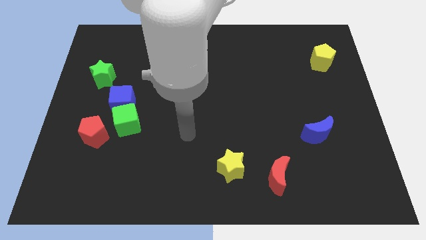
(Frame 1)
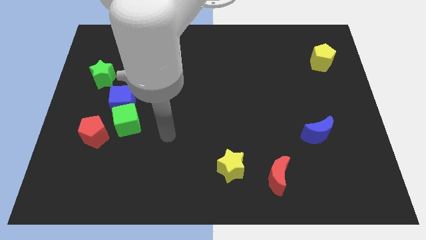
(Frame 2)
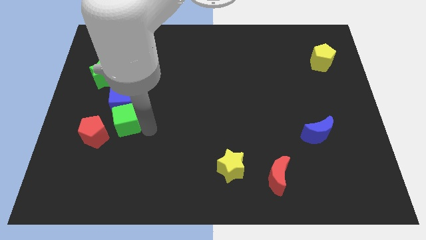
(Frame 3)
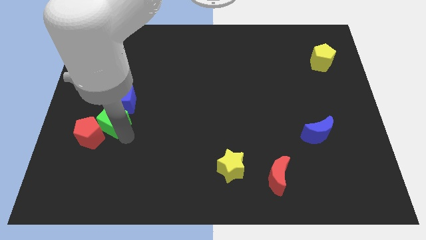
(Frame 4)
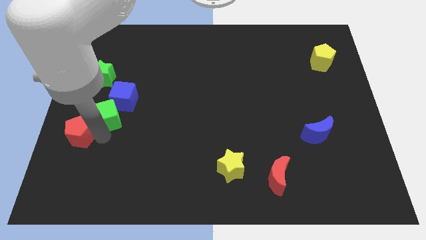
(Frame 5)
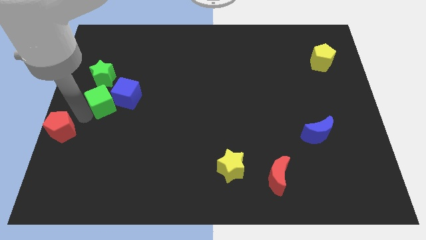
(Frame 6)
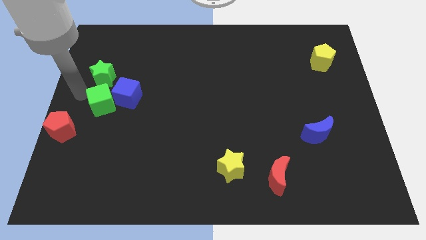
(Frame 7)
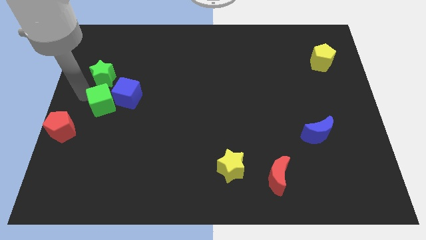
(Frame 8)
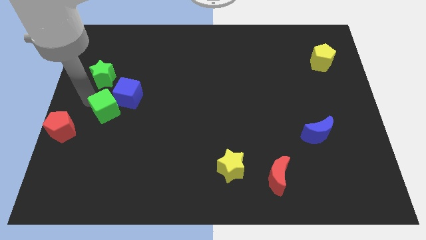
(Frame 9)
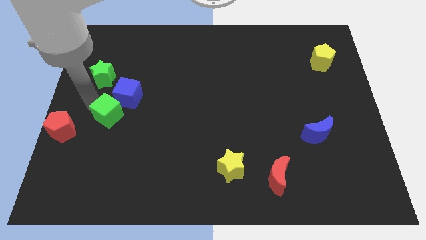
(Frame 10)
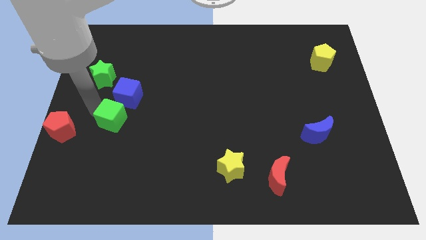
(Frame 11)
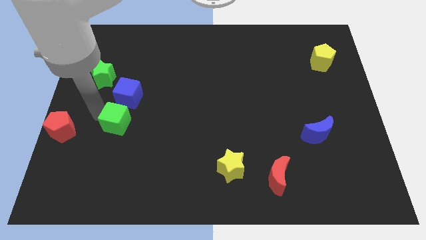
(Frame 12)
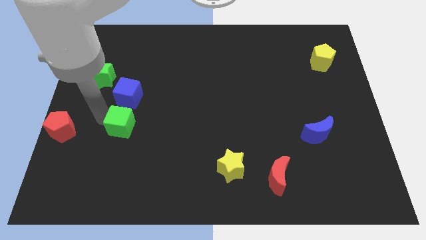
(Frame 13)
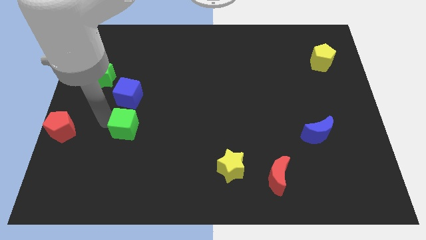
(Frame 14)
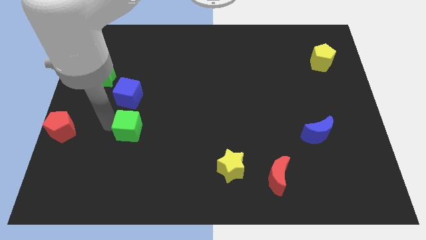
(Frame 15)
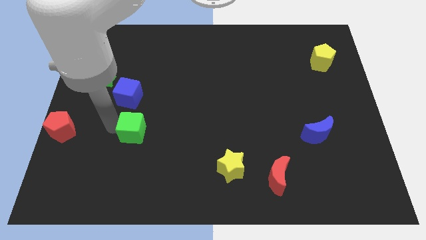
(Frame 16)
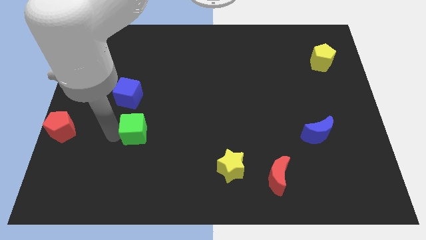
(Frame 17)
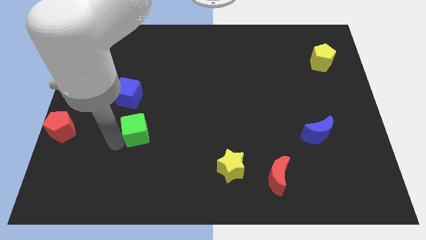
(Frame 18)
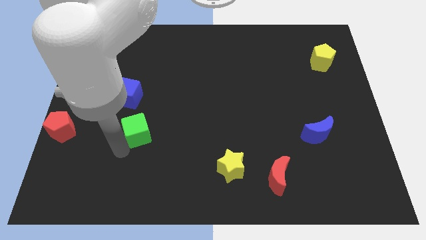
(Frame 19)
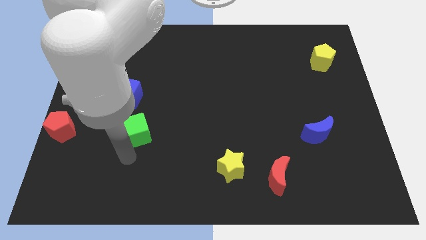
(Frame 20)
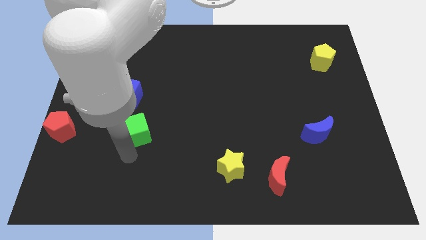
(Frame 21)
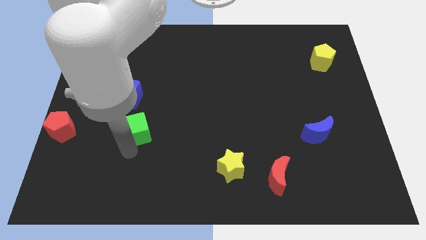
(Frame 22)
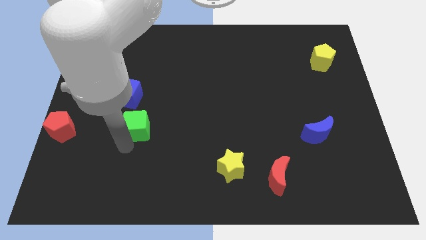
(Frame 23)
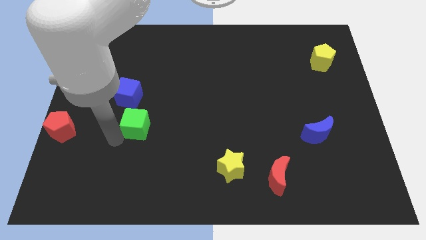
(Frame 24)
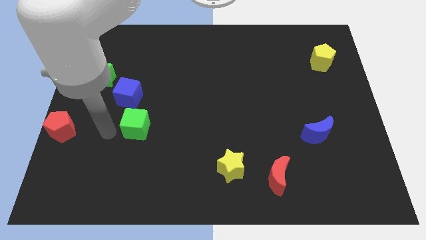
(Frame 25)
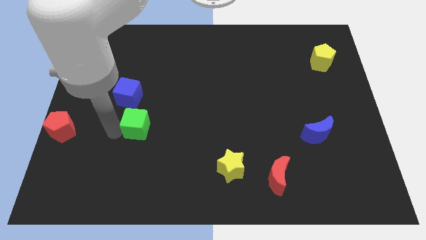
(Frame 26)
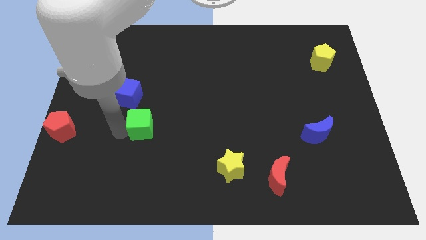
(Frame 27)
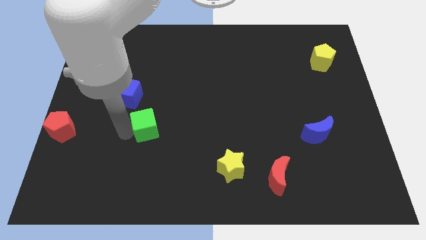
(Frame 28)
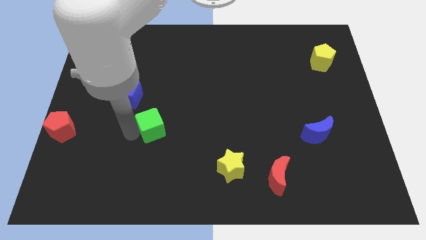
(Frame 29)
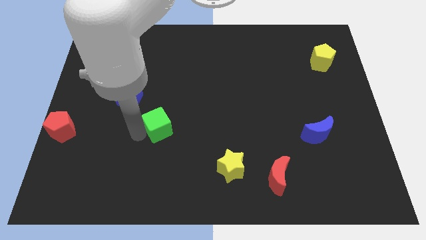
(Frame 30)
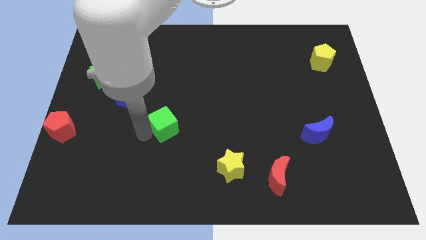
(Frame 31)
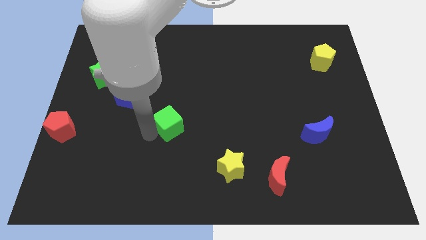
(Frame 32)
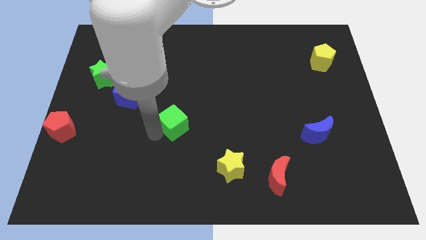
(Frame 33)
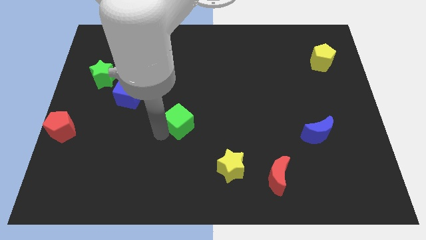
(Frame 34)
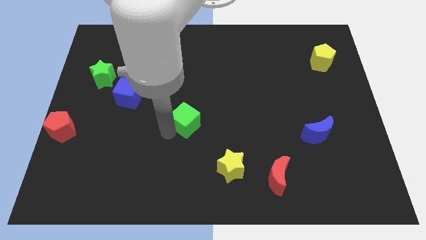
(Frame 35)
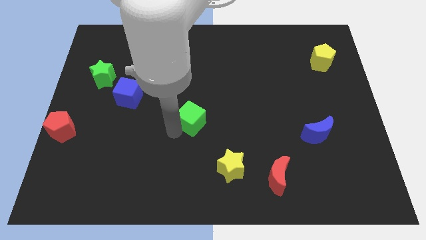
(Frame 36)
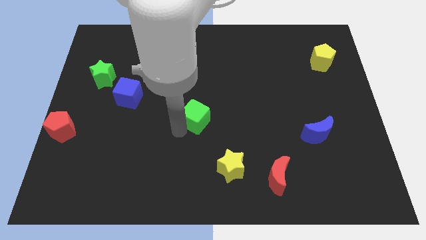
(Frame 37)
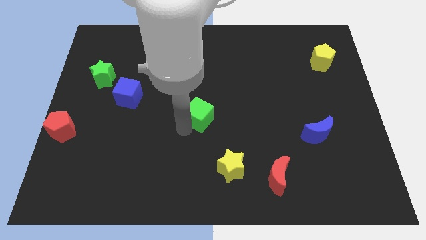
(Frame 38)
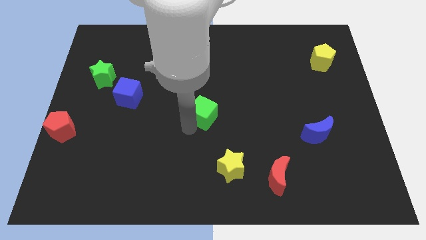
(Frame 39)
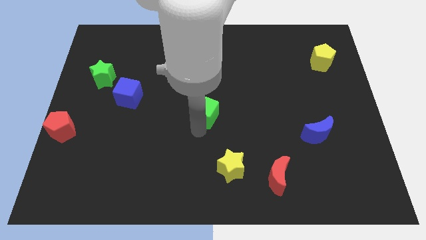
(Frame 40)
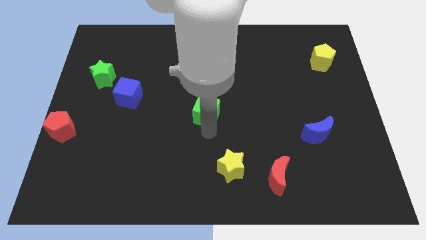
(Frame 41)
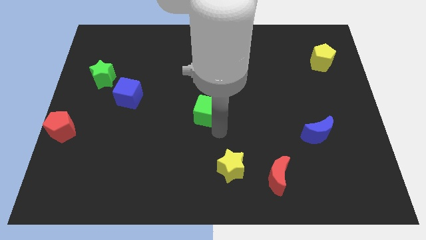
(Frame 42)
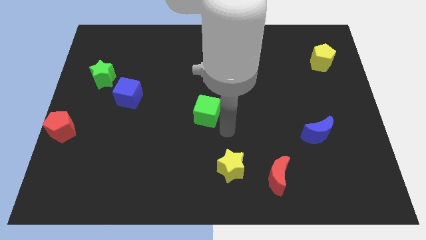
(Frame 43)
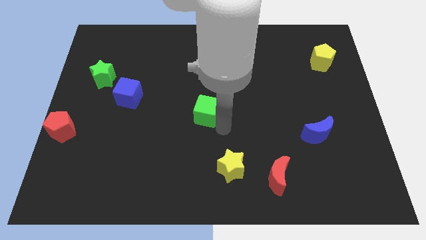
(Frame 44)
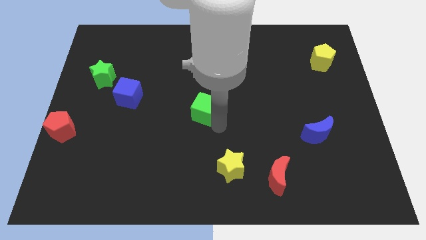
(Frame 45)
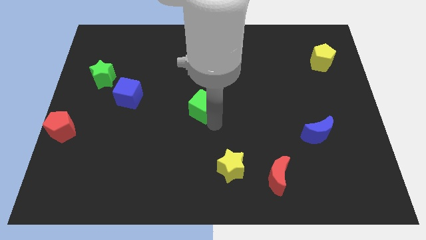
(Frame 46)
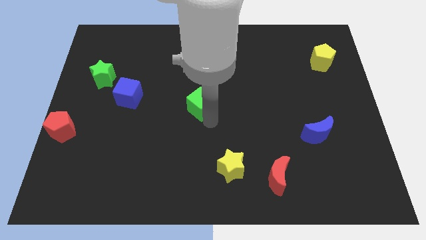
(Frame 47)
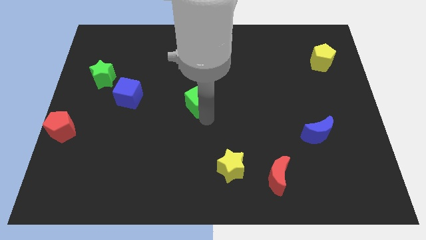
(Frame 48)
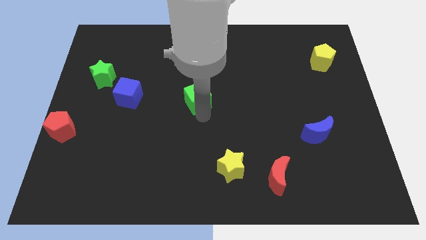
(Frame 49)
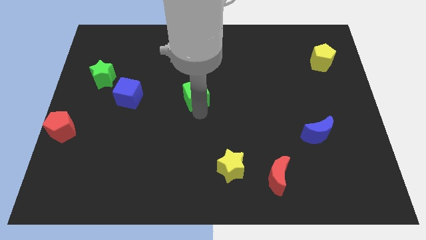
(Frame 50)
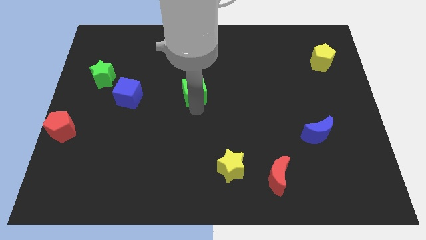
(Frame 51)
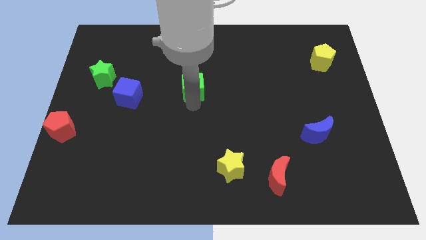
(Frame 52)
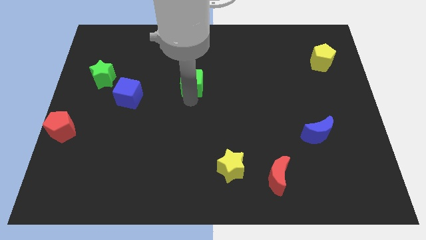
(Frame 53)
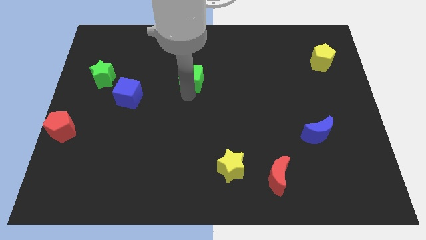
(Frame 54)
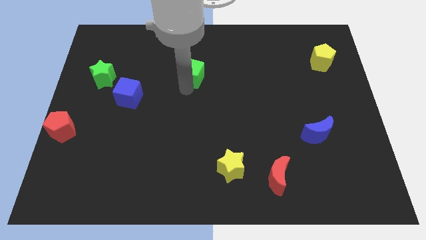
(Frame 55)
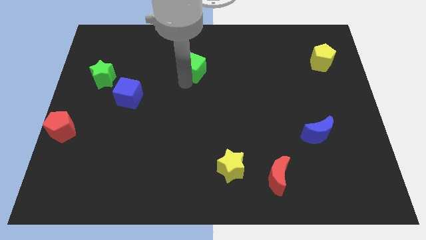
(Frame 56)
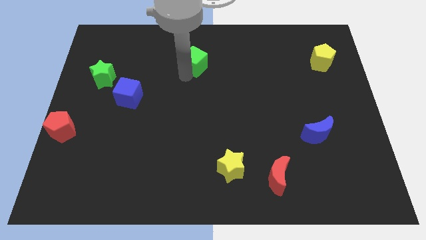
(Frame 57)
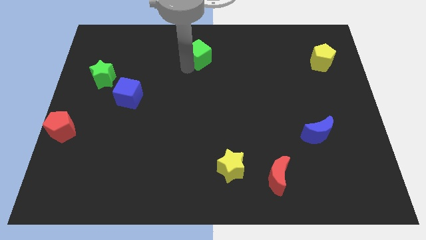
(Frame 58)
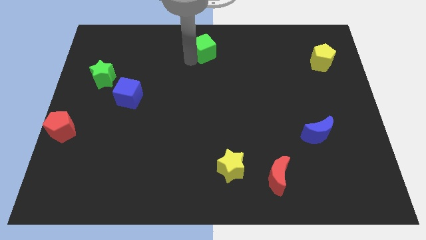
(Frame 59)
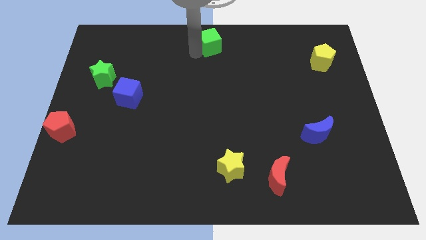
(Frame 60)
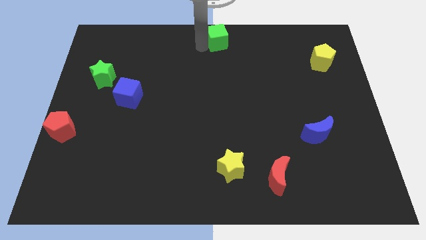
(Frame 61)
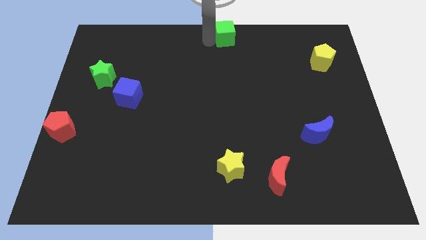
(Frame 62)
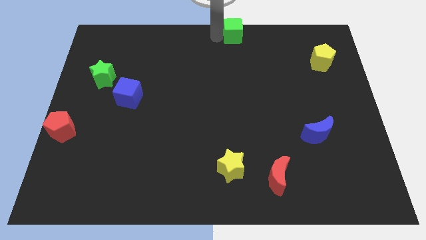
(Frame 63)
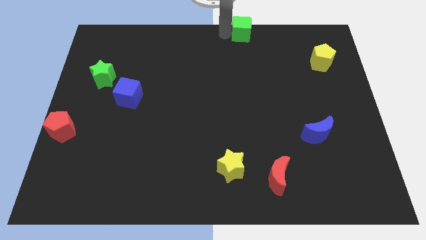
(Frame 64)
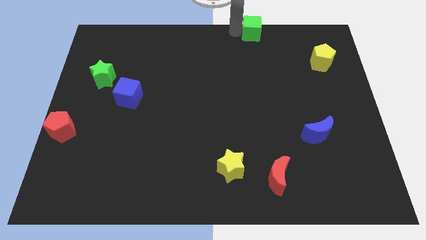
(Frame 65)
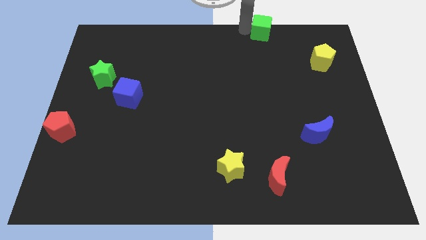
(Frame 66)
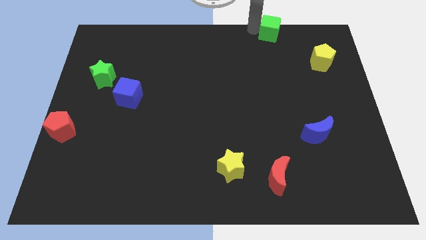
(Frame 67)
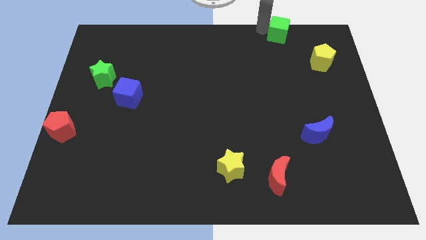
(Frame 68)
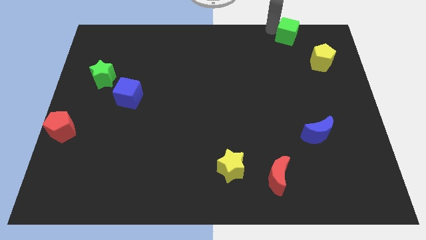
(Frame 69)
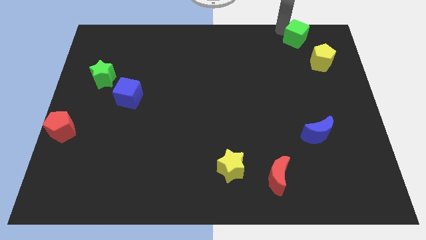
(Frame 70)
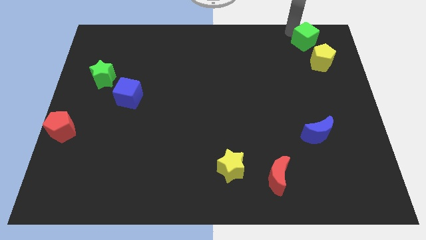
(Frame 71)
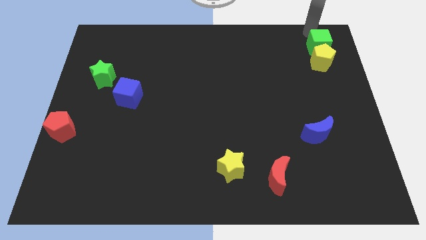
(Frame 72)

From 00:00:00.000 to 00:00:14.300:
push the green cube close to the yellow pentagon
